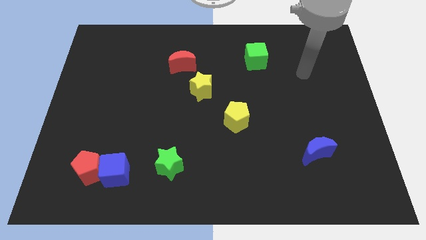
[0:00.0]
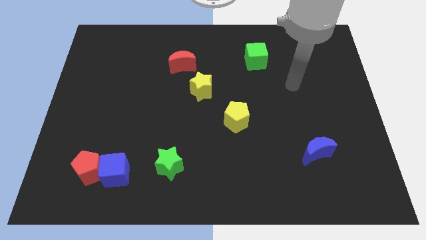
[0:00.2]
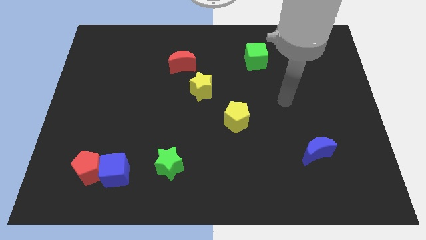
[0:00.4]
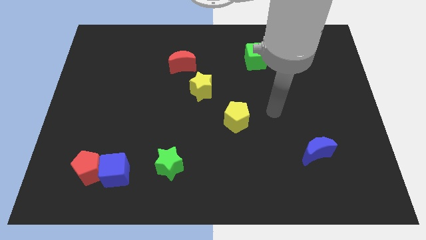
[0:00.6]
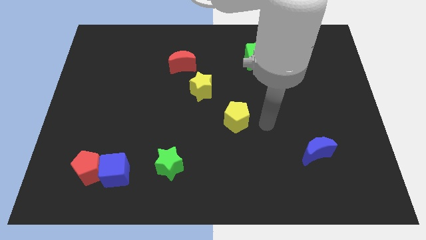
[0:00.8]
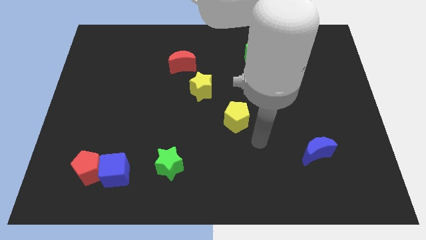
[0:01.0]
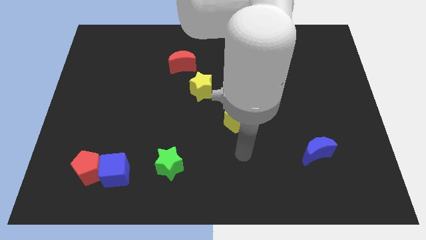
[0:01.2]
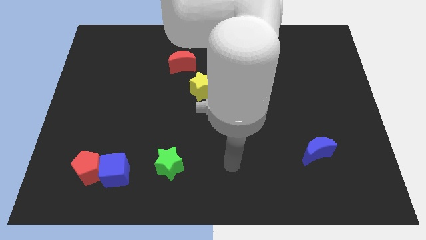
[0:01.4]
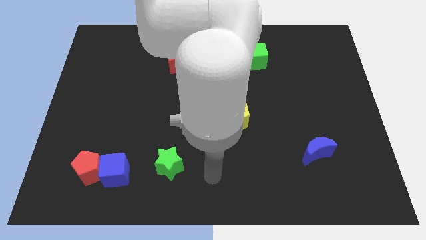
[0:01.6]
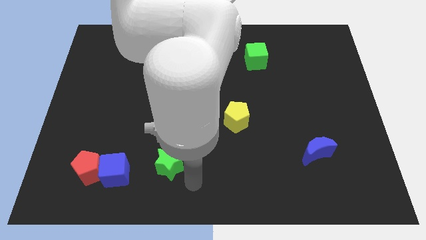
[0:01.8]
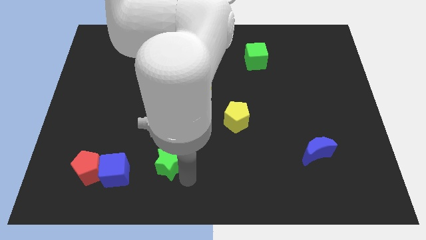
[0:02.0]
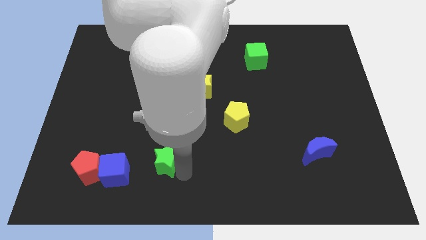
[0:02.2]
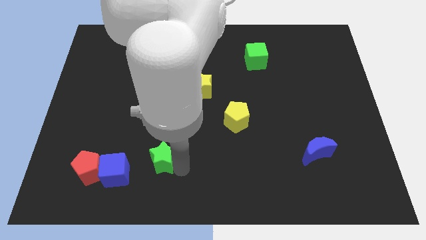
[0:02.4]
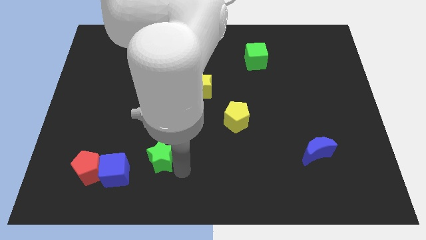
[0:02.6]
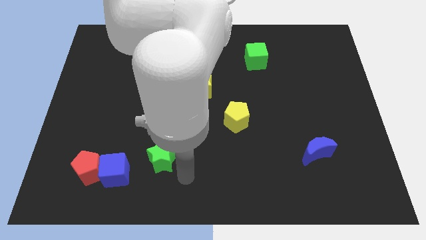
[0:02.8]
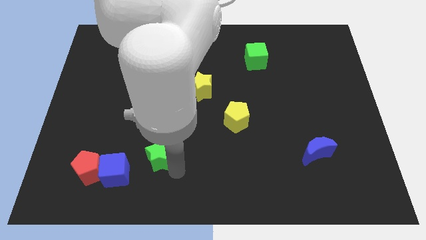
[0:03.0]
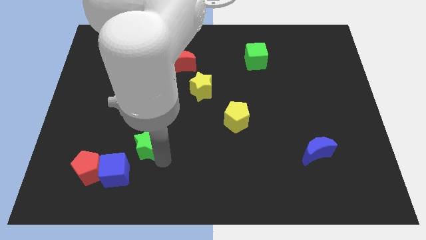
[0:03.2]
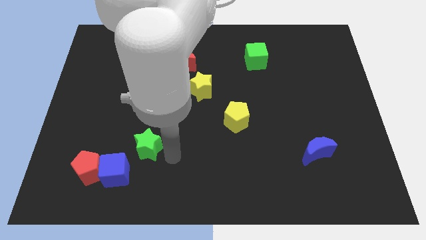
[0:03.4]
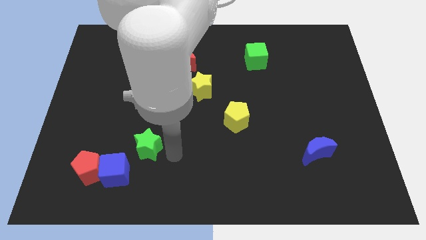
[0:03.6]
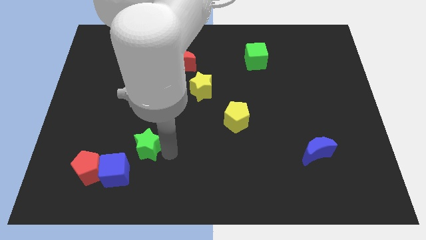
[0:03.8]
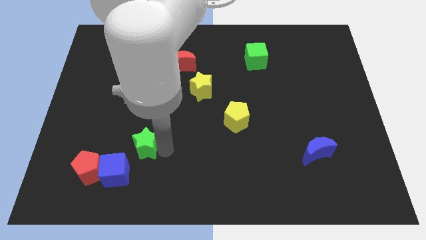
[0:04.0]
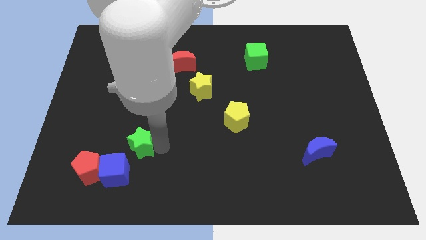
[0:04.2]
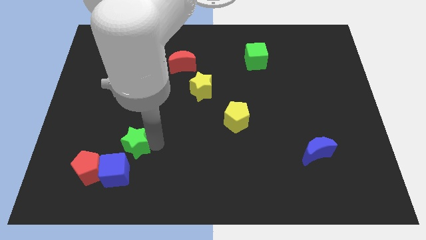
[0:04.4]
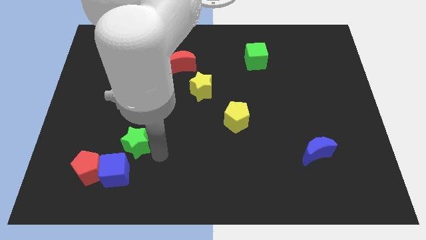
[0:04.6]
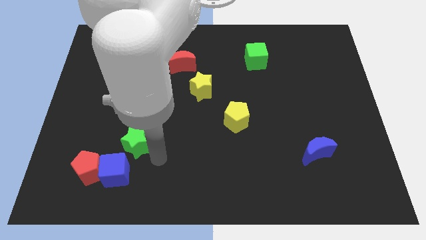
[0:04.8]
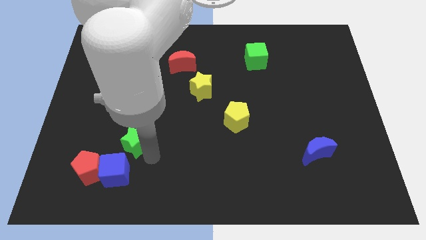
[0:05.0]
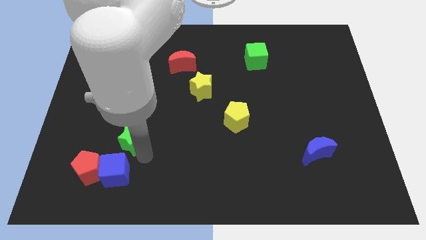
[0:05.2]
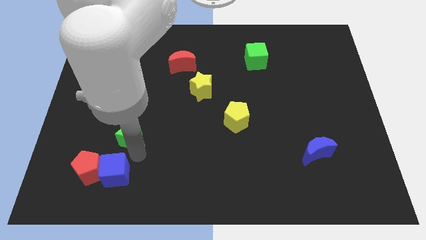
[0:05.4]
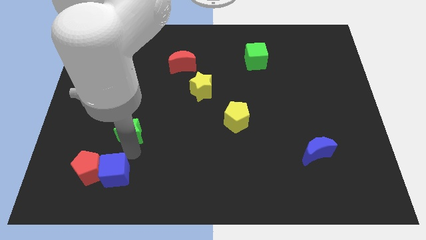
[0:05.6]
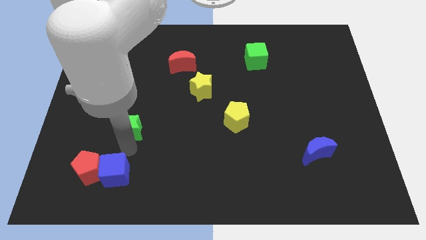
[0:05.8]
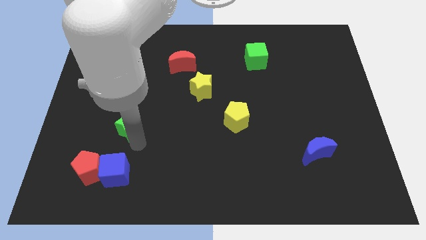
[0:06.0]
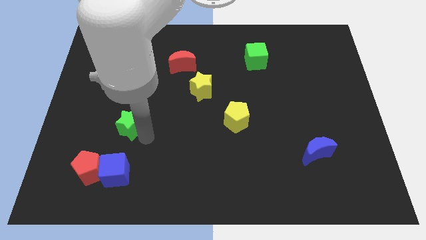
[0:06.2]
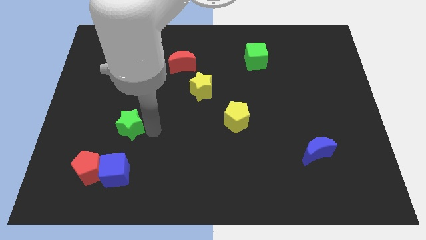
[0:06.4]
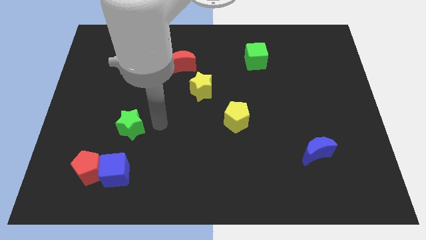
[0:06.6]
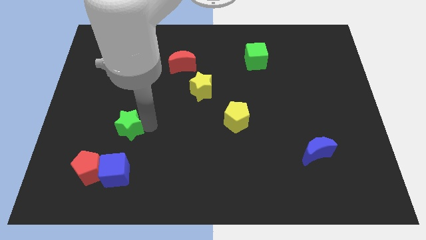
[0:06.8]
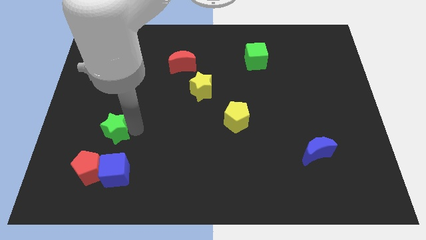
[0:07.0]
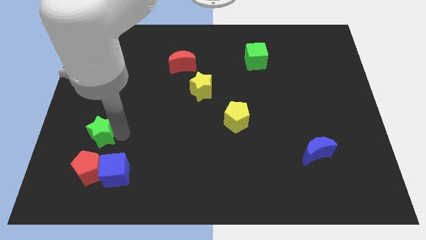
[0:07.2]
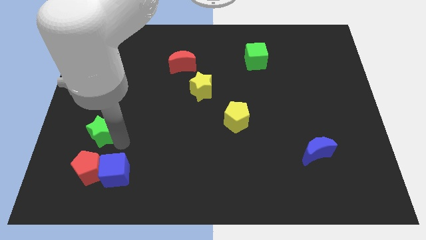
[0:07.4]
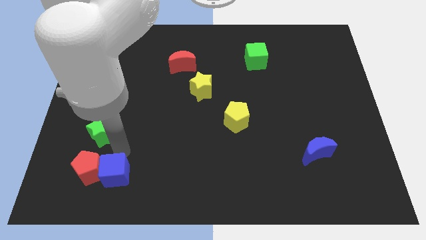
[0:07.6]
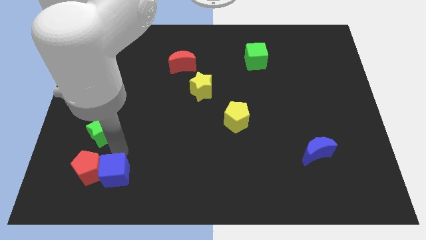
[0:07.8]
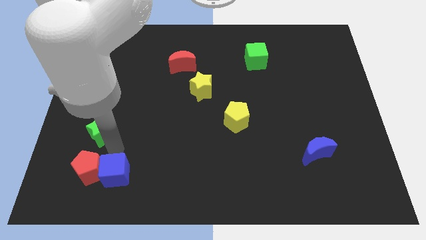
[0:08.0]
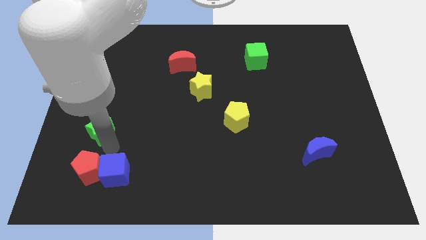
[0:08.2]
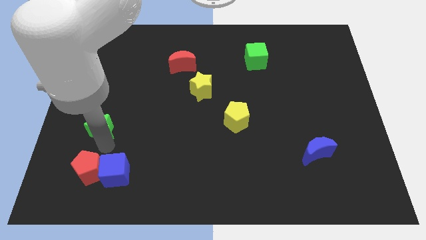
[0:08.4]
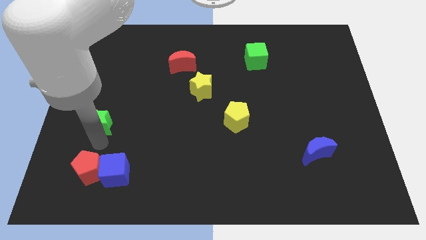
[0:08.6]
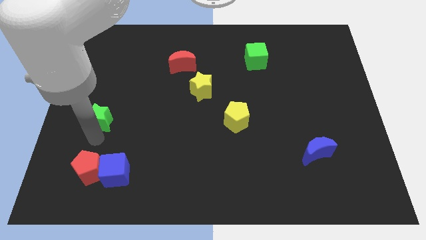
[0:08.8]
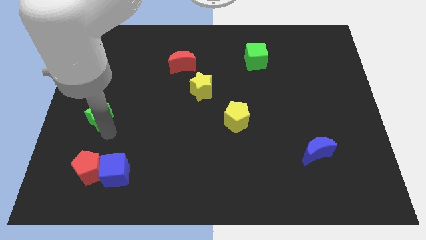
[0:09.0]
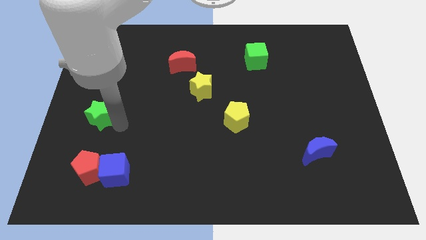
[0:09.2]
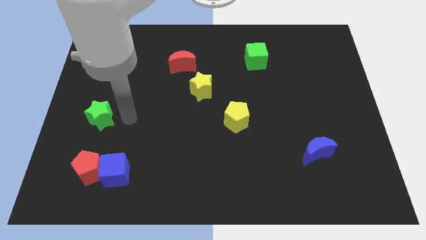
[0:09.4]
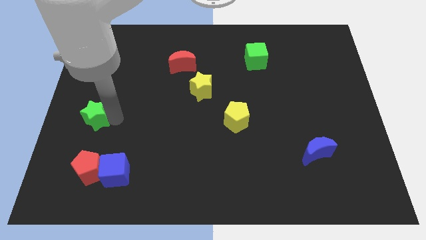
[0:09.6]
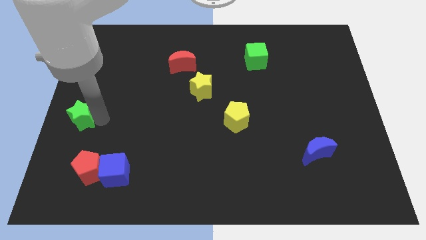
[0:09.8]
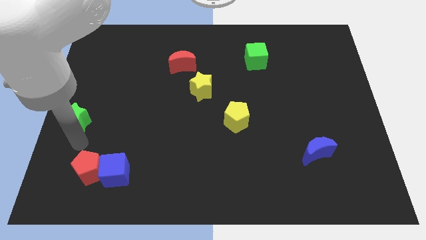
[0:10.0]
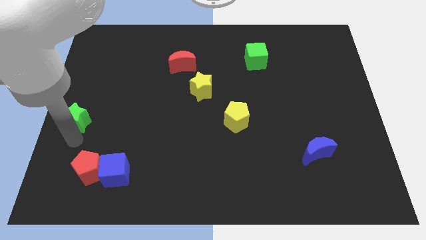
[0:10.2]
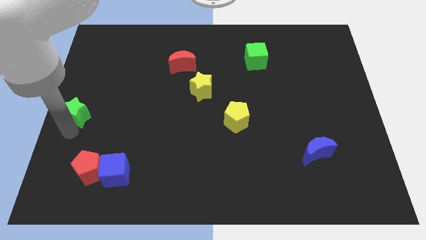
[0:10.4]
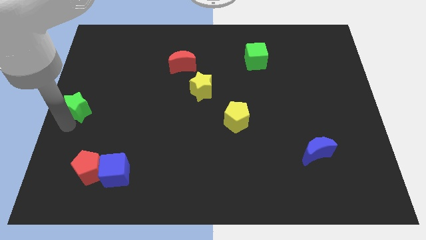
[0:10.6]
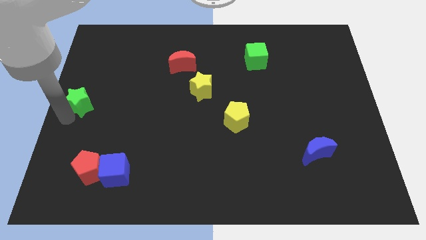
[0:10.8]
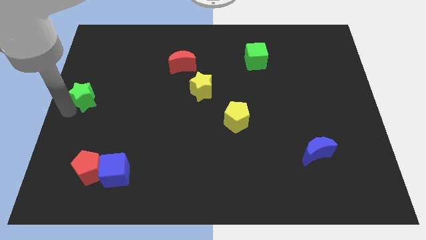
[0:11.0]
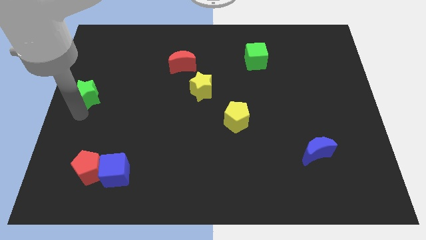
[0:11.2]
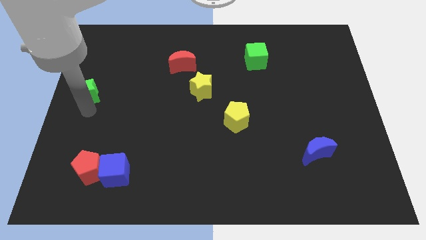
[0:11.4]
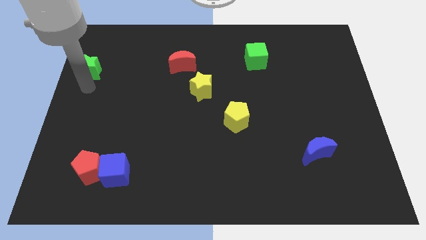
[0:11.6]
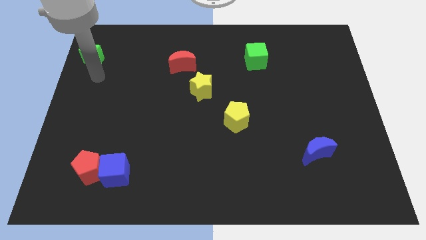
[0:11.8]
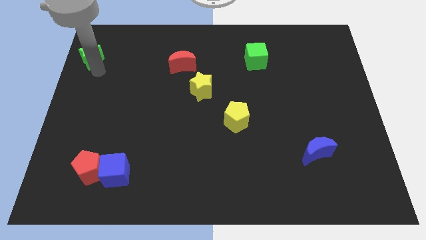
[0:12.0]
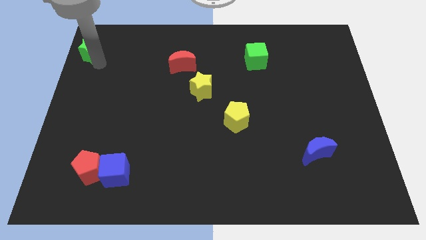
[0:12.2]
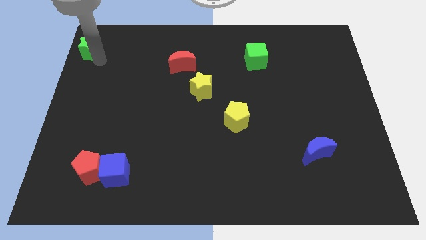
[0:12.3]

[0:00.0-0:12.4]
put the green star to the top left corner

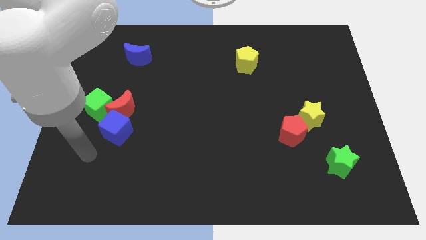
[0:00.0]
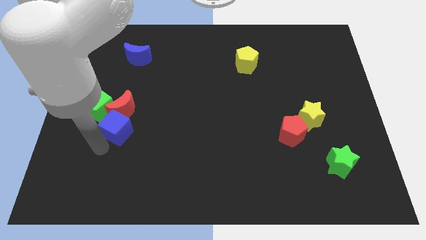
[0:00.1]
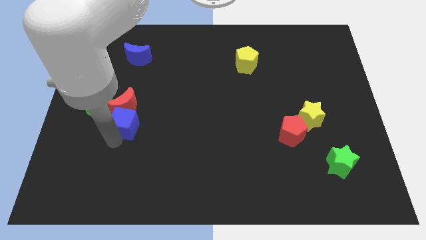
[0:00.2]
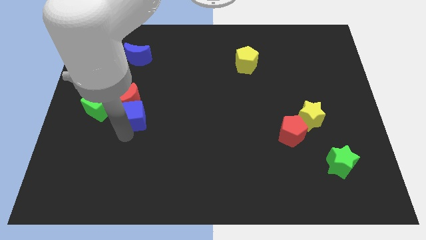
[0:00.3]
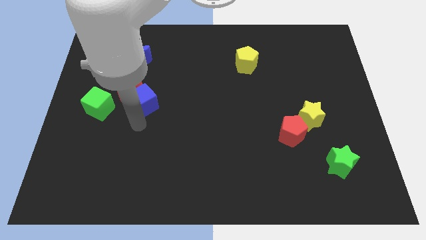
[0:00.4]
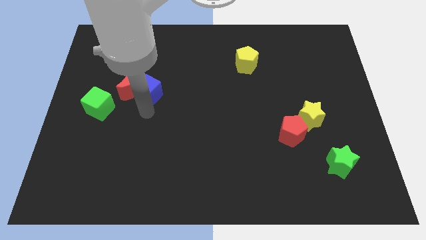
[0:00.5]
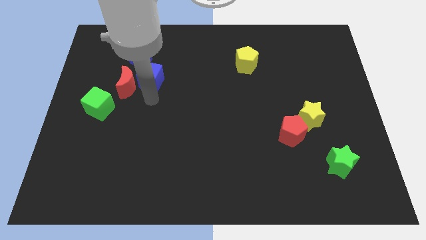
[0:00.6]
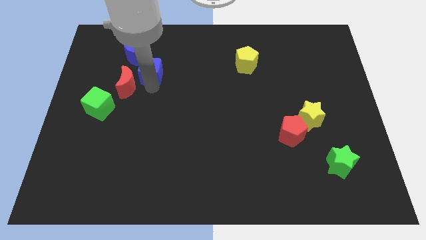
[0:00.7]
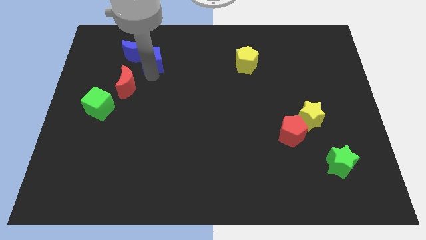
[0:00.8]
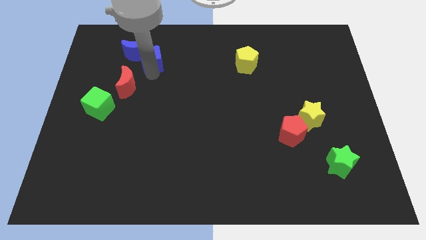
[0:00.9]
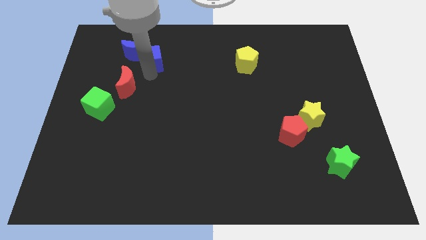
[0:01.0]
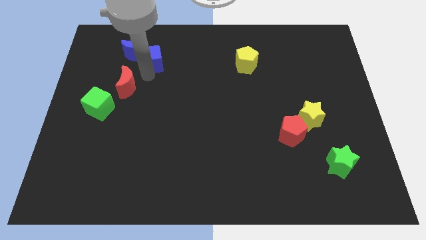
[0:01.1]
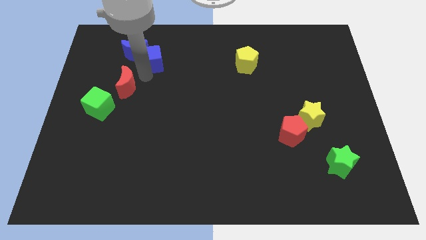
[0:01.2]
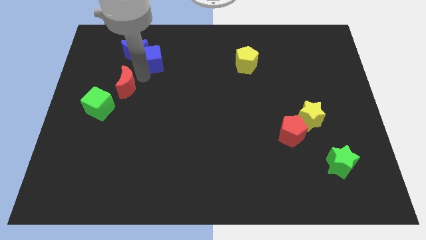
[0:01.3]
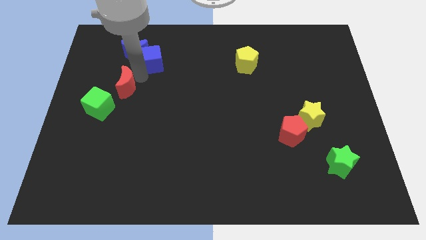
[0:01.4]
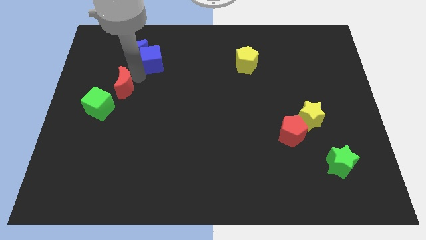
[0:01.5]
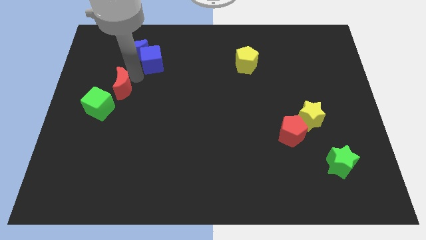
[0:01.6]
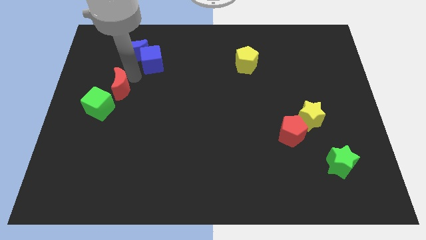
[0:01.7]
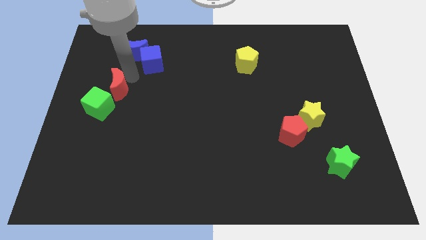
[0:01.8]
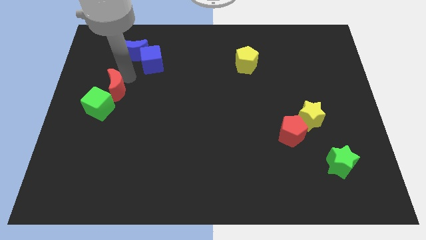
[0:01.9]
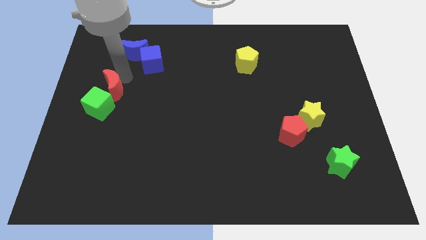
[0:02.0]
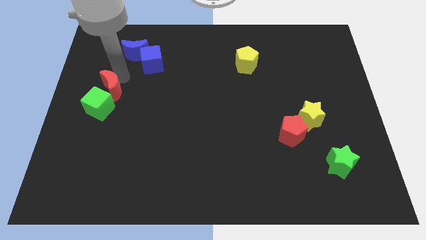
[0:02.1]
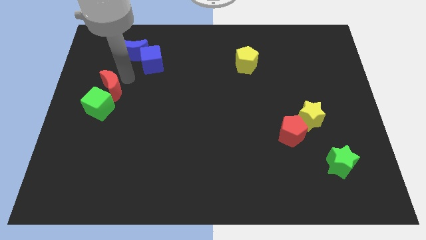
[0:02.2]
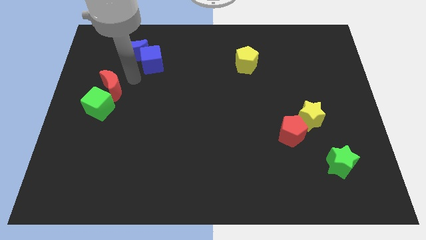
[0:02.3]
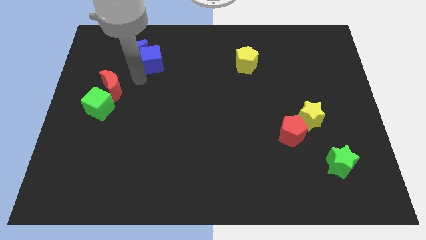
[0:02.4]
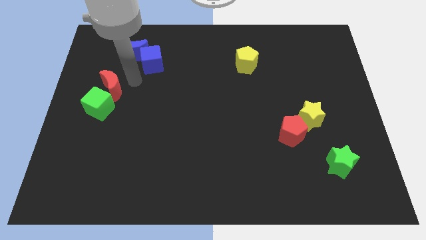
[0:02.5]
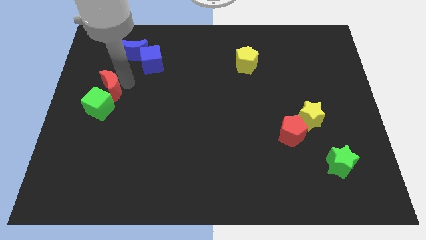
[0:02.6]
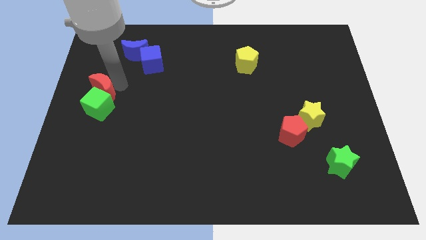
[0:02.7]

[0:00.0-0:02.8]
slide the red moon to the left side of the board
